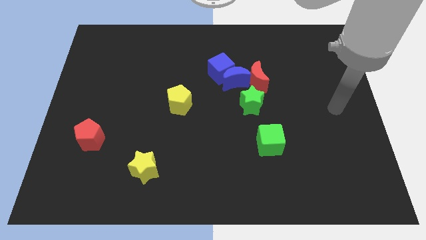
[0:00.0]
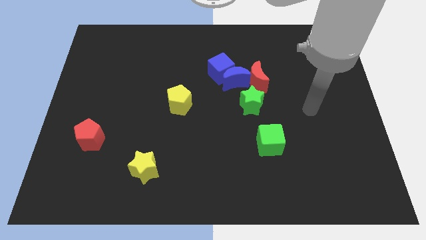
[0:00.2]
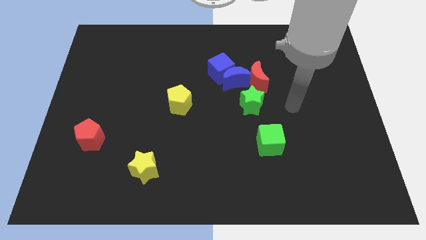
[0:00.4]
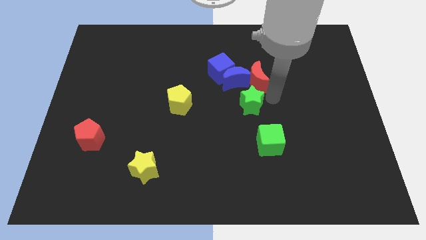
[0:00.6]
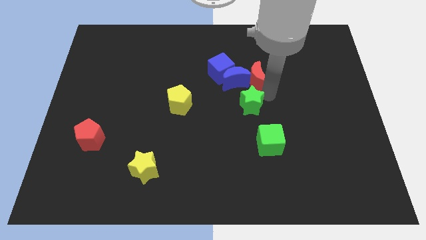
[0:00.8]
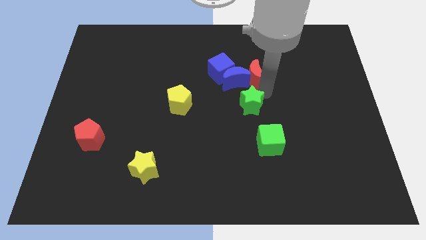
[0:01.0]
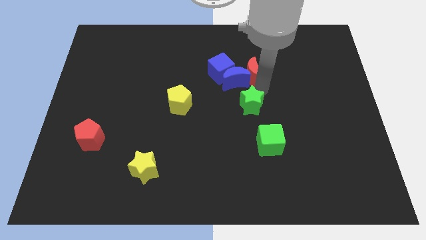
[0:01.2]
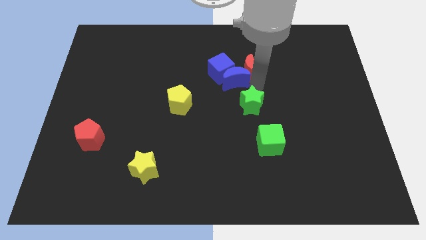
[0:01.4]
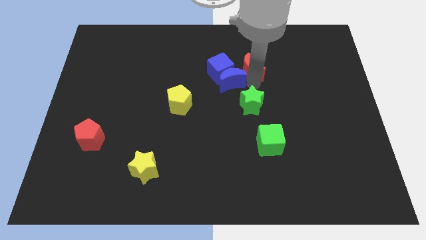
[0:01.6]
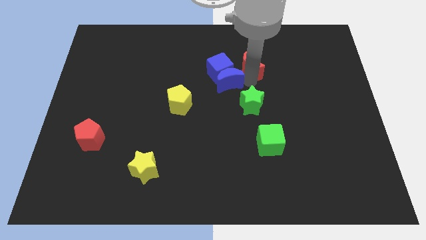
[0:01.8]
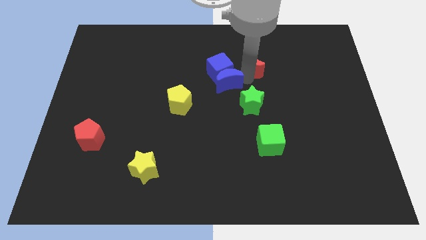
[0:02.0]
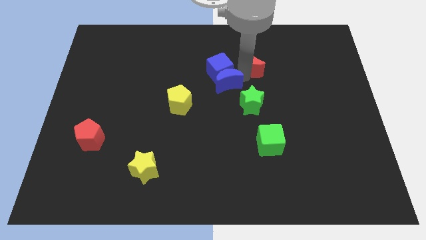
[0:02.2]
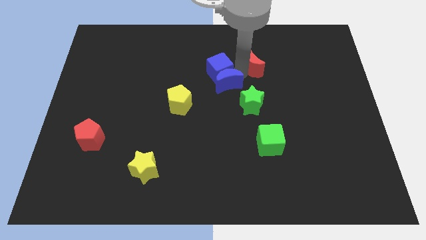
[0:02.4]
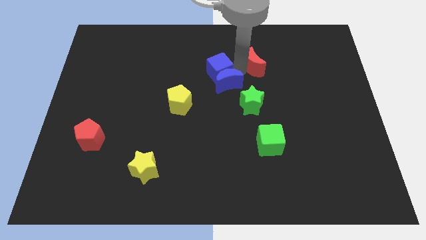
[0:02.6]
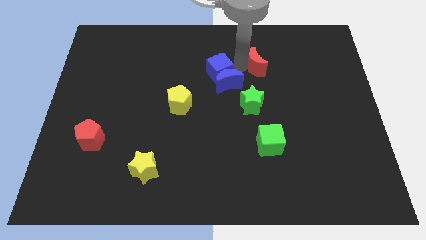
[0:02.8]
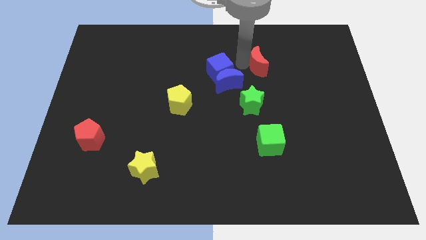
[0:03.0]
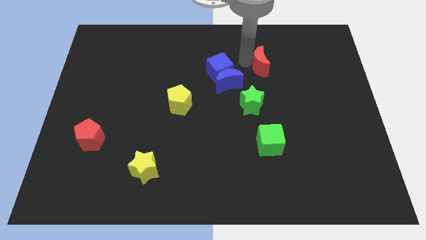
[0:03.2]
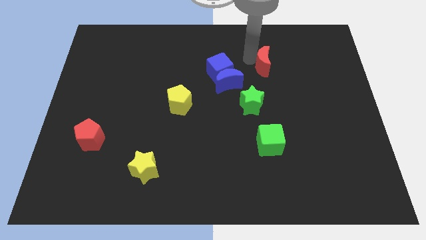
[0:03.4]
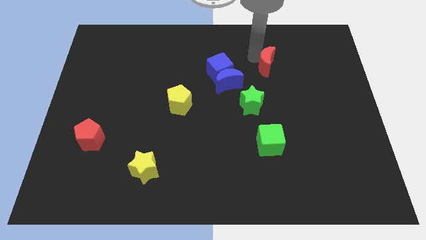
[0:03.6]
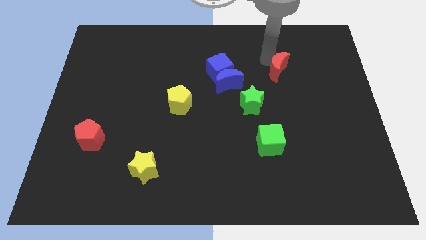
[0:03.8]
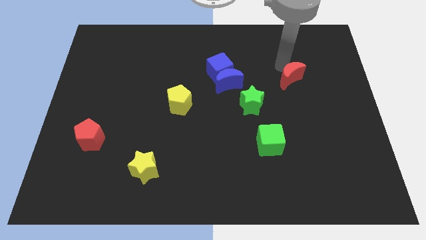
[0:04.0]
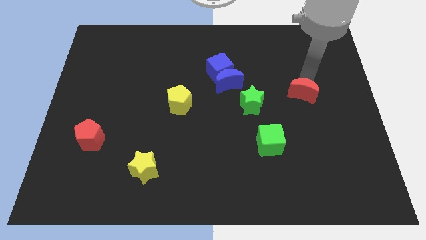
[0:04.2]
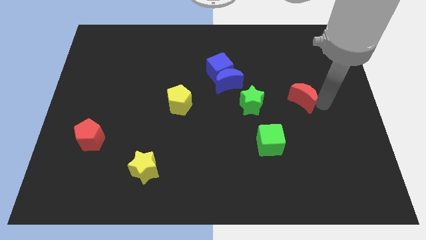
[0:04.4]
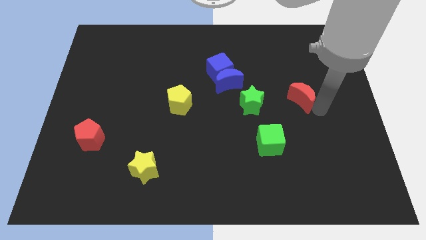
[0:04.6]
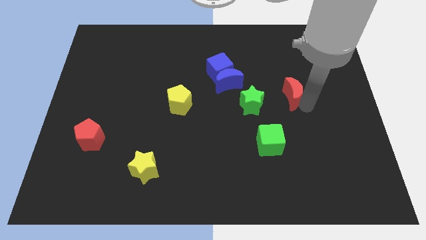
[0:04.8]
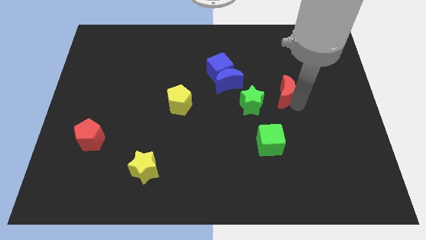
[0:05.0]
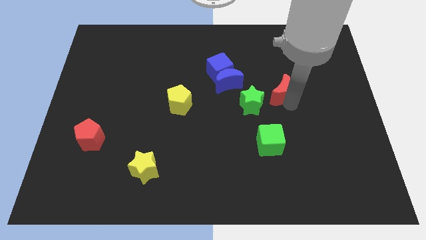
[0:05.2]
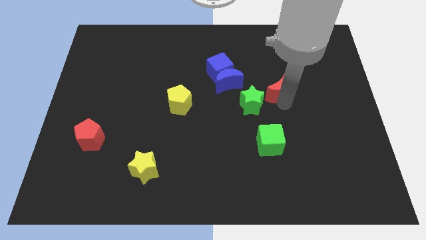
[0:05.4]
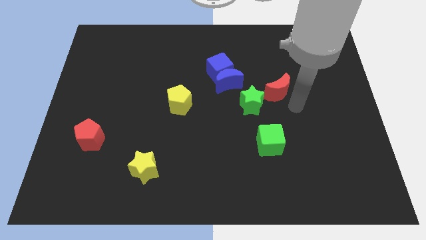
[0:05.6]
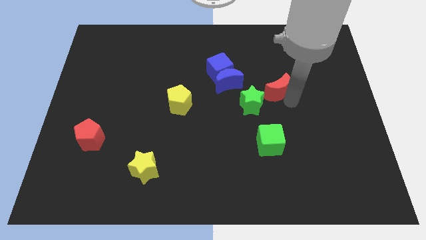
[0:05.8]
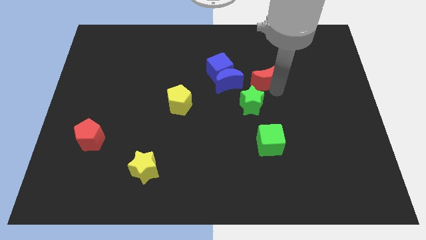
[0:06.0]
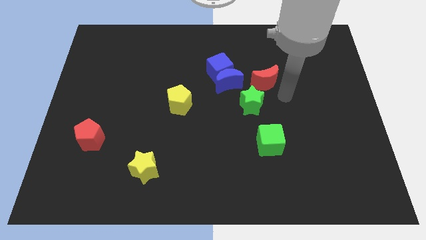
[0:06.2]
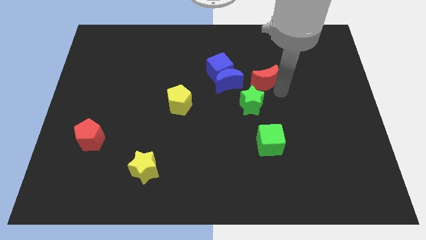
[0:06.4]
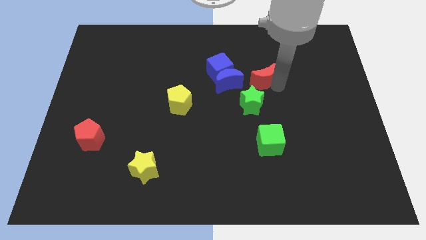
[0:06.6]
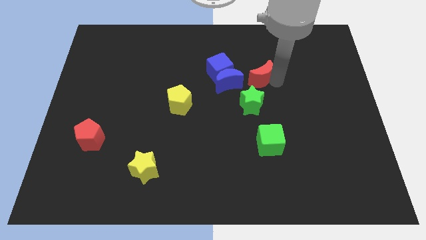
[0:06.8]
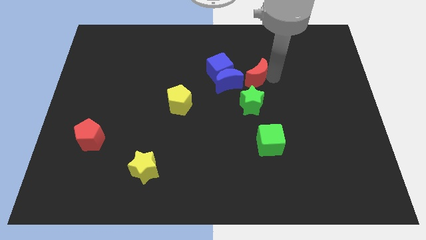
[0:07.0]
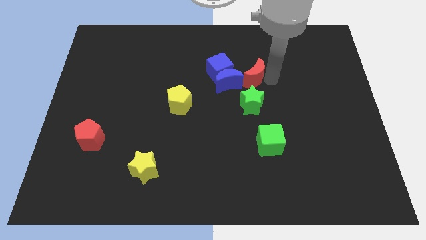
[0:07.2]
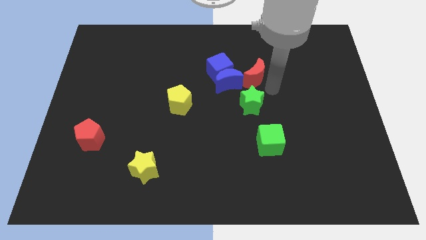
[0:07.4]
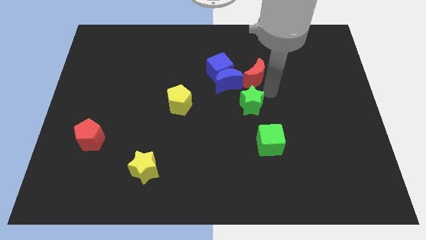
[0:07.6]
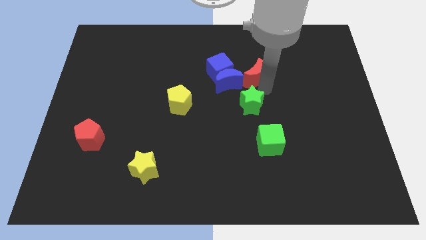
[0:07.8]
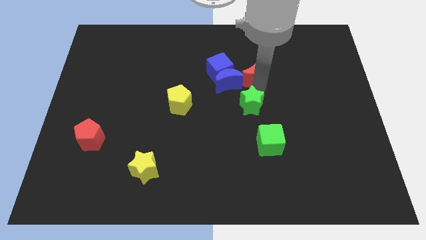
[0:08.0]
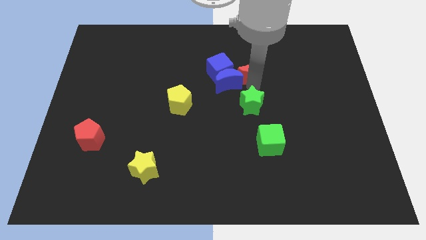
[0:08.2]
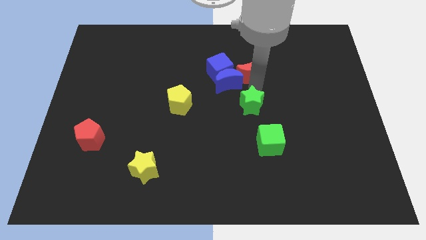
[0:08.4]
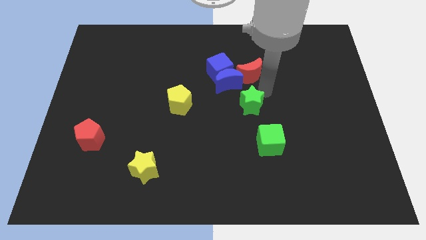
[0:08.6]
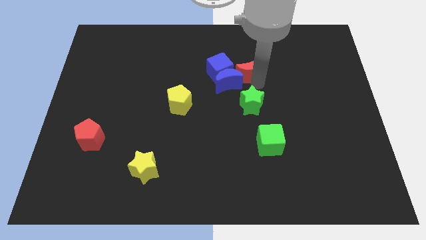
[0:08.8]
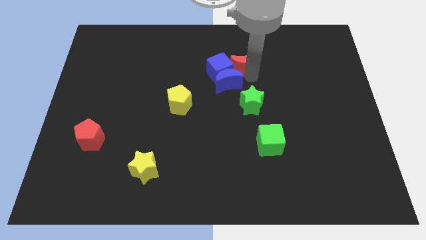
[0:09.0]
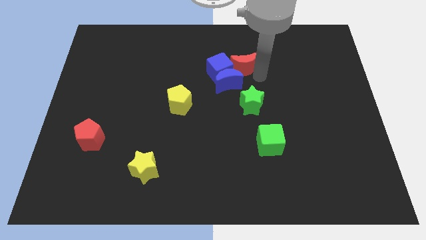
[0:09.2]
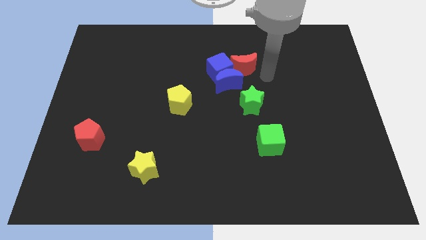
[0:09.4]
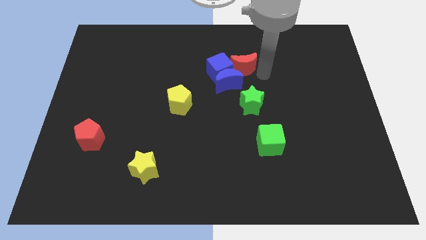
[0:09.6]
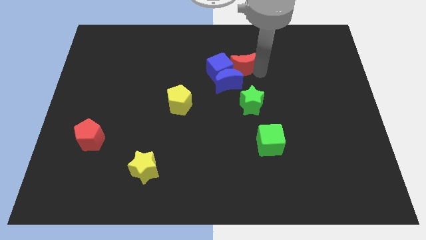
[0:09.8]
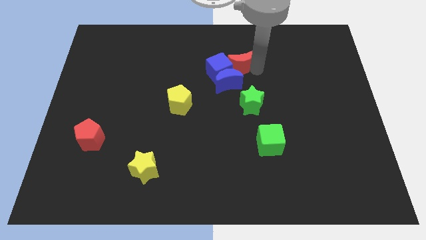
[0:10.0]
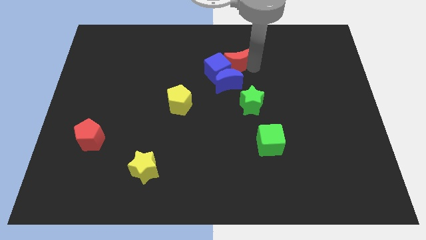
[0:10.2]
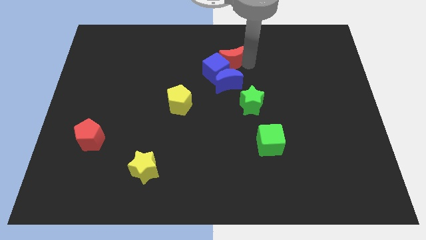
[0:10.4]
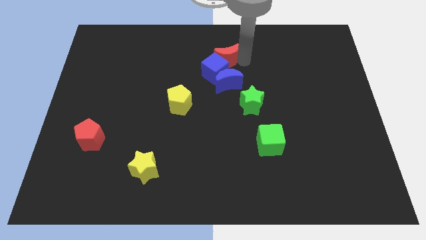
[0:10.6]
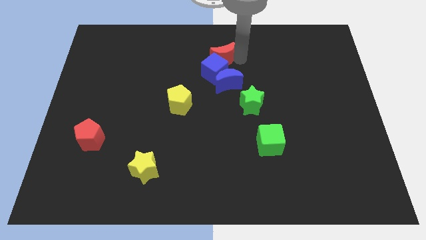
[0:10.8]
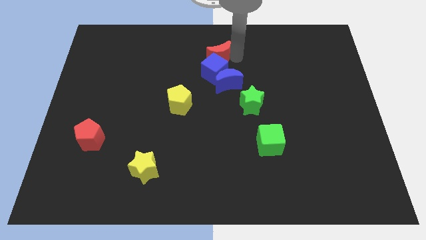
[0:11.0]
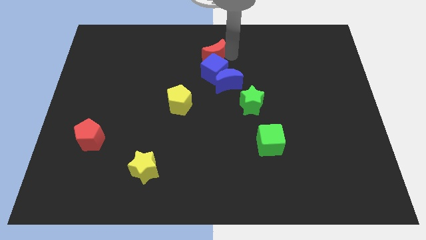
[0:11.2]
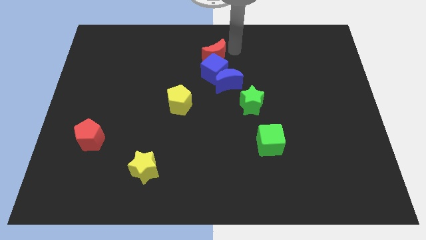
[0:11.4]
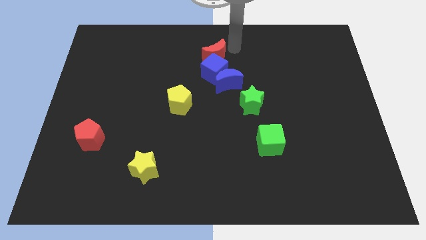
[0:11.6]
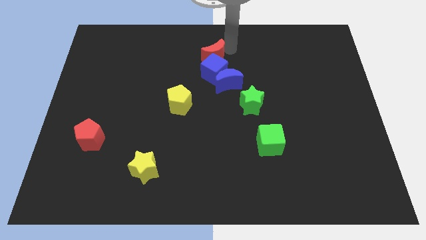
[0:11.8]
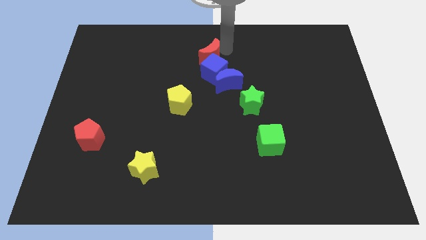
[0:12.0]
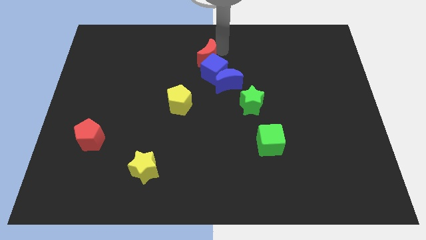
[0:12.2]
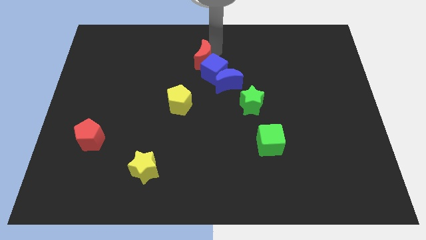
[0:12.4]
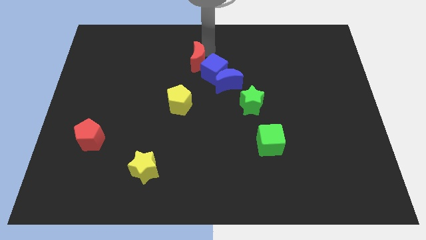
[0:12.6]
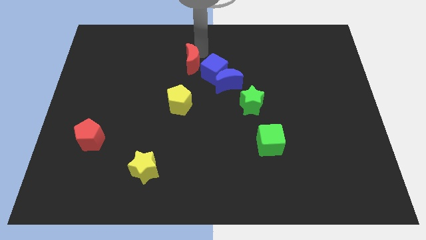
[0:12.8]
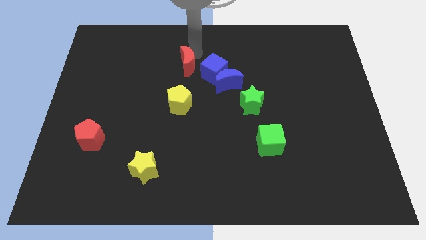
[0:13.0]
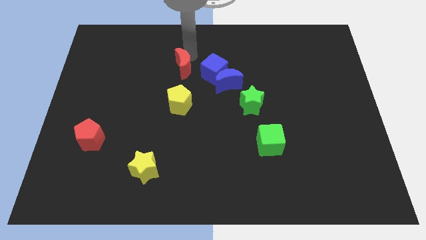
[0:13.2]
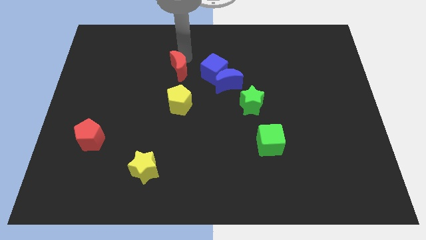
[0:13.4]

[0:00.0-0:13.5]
slide the red moon just left of the blue moon

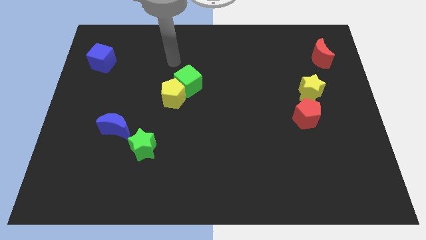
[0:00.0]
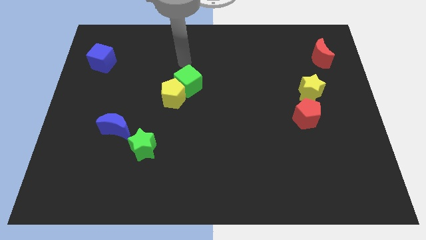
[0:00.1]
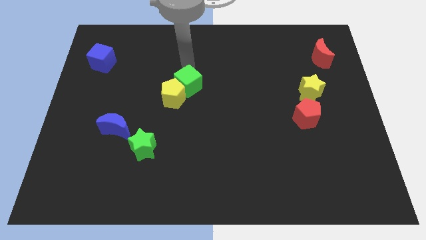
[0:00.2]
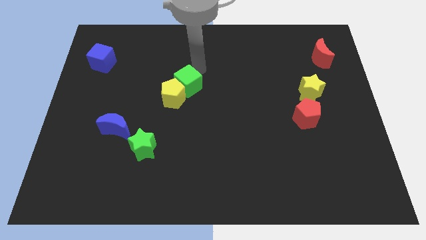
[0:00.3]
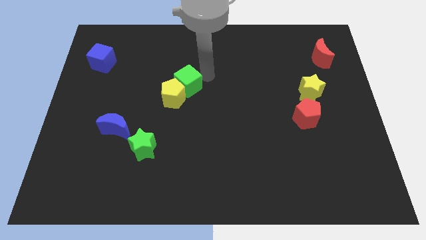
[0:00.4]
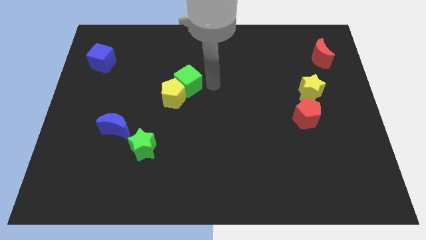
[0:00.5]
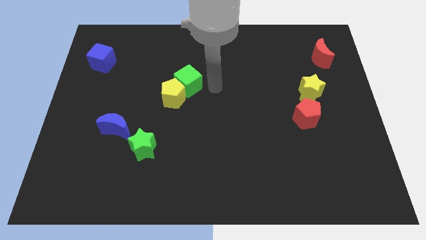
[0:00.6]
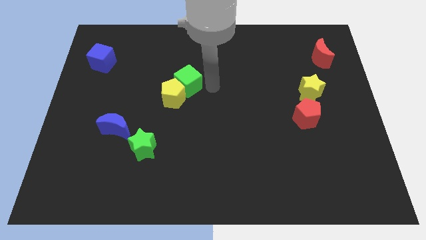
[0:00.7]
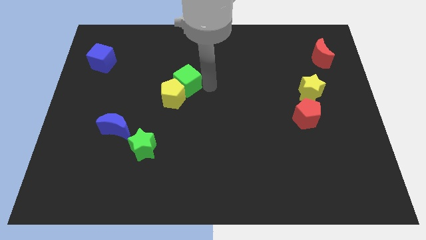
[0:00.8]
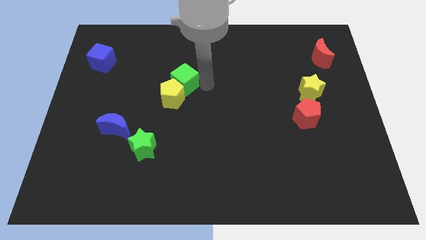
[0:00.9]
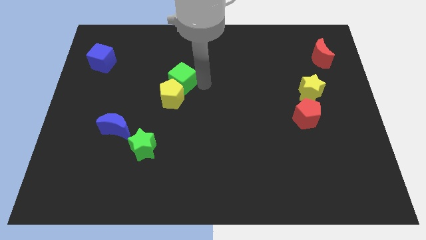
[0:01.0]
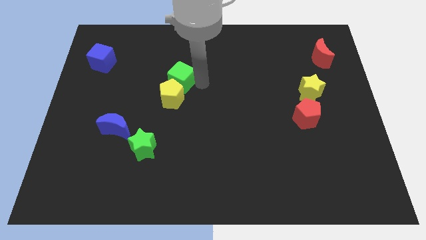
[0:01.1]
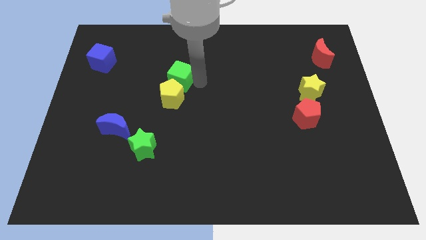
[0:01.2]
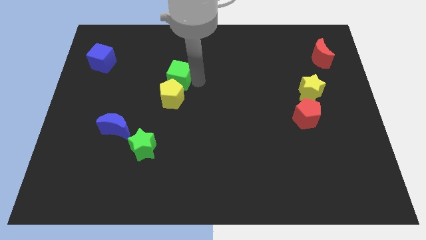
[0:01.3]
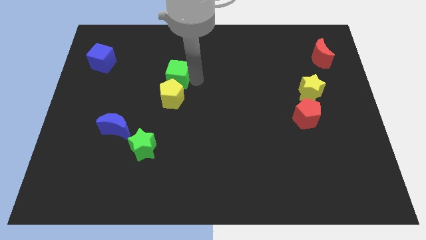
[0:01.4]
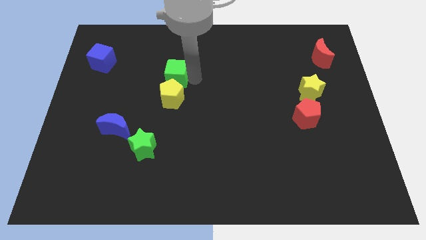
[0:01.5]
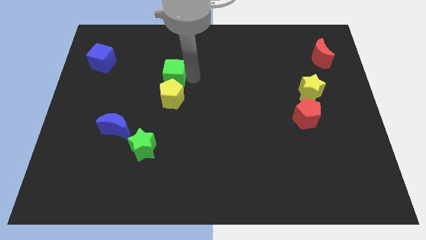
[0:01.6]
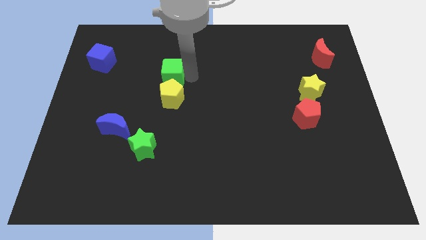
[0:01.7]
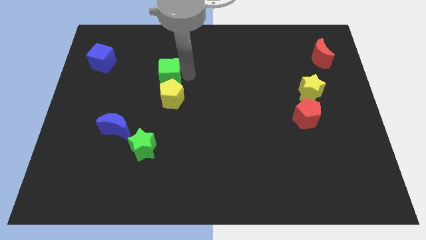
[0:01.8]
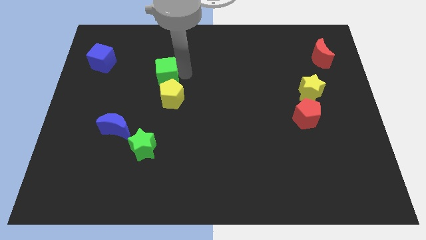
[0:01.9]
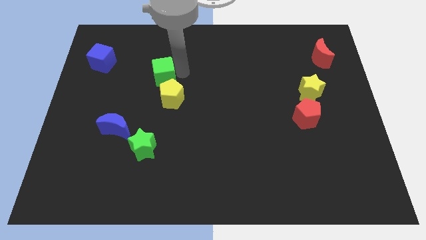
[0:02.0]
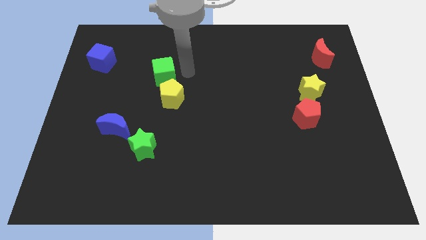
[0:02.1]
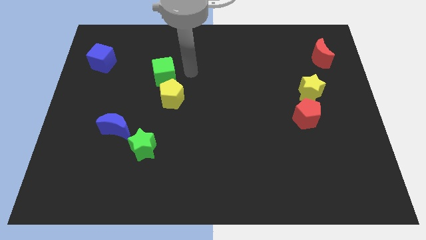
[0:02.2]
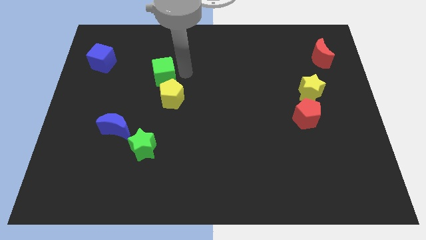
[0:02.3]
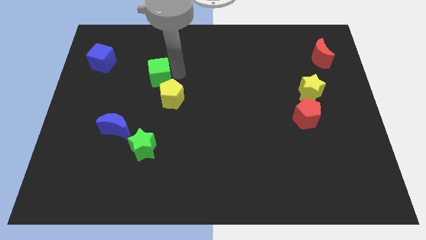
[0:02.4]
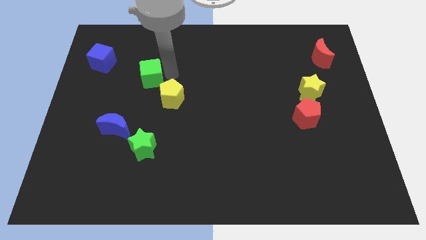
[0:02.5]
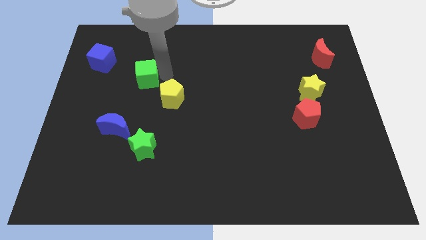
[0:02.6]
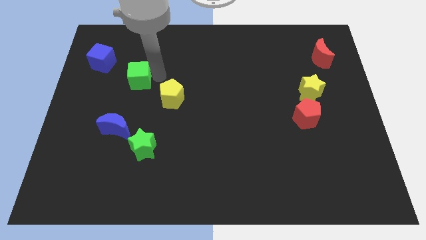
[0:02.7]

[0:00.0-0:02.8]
slide the green cube diagonally down and to the right of the blue cube
